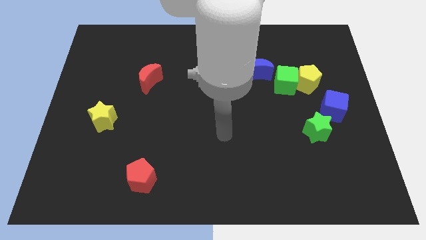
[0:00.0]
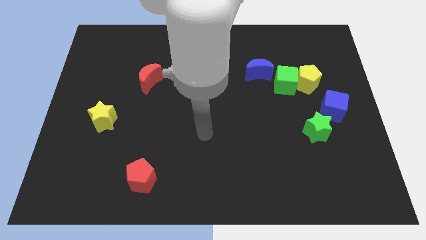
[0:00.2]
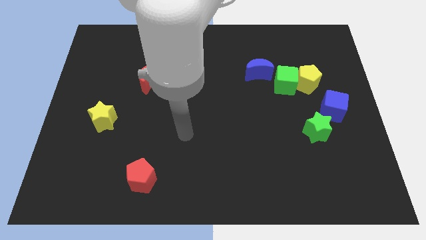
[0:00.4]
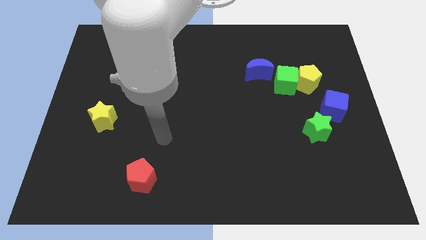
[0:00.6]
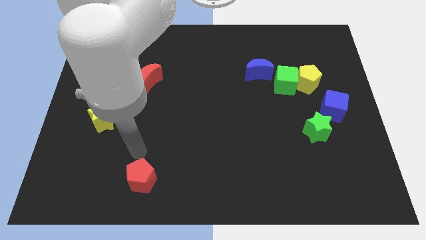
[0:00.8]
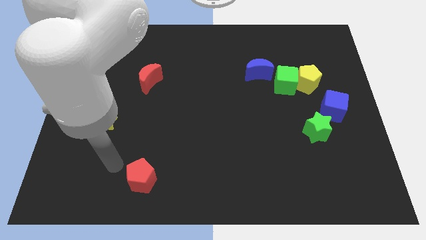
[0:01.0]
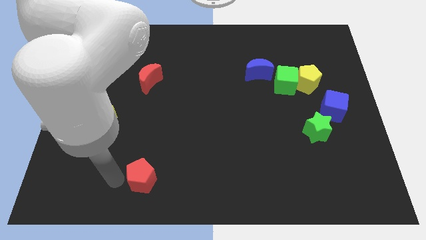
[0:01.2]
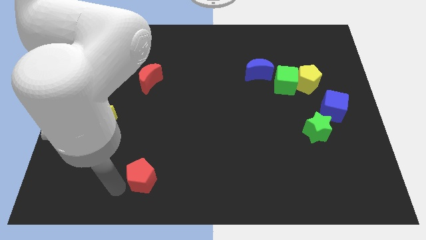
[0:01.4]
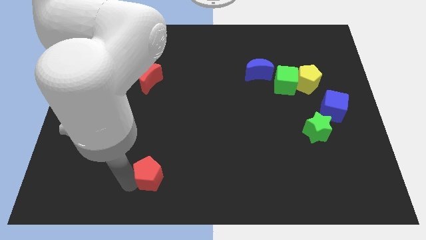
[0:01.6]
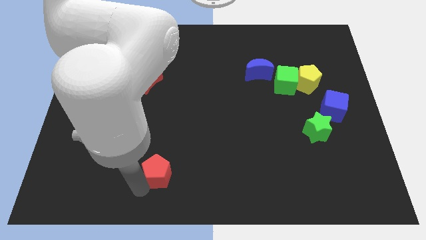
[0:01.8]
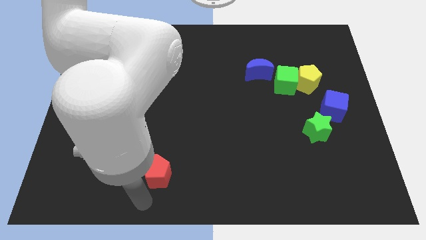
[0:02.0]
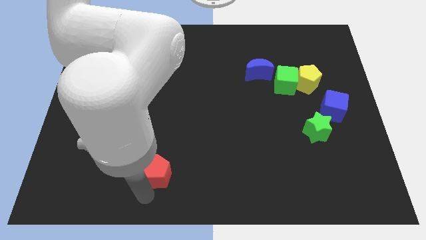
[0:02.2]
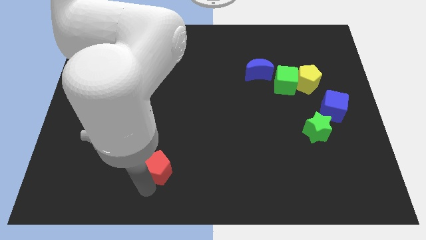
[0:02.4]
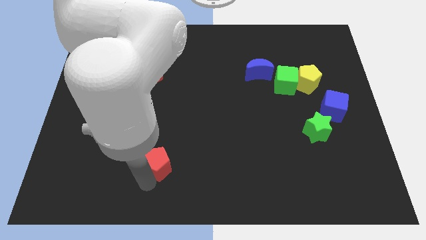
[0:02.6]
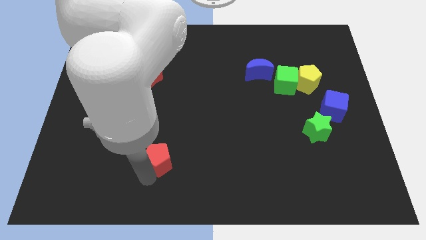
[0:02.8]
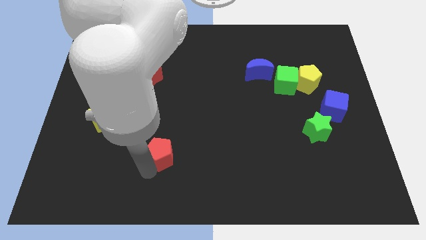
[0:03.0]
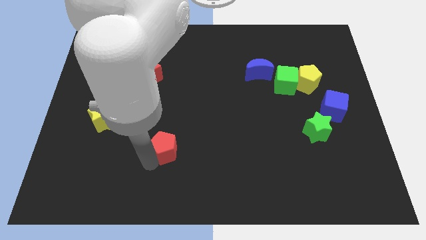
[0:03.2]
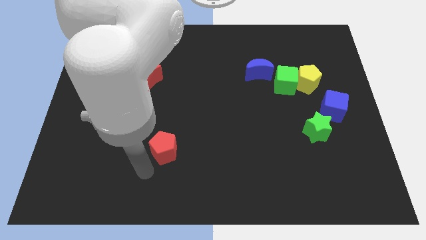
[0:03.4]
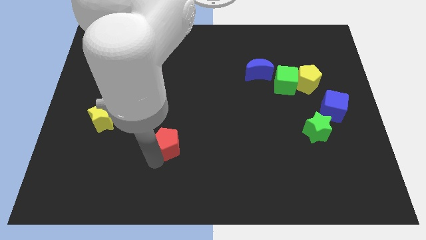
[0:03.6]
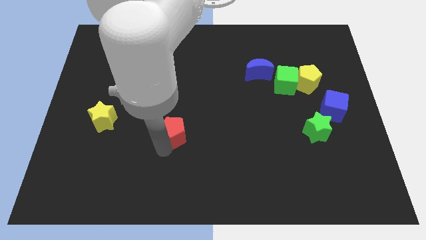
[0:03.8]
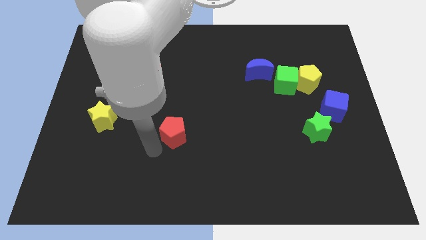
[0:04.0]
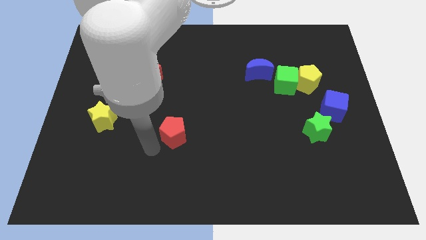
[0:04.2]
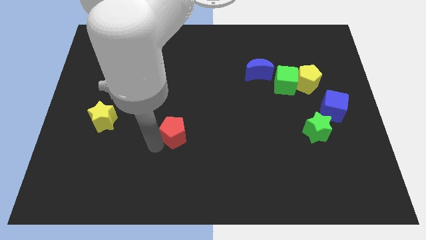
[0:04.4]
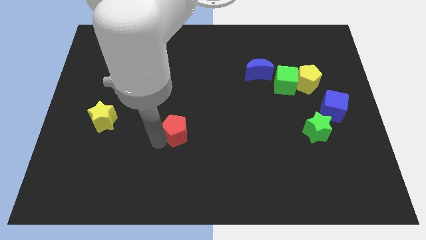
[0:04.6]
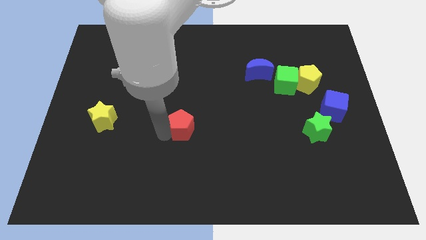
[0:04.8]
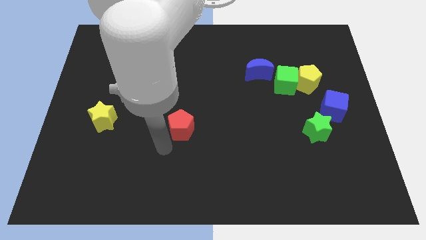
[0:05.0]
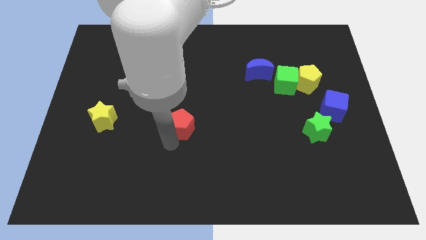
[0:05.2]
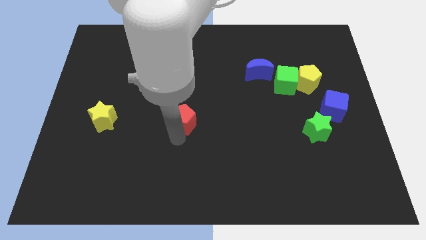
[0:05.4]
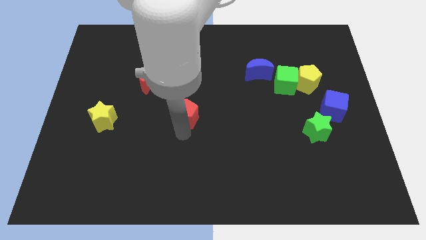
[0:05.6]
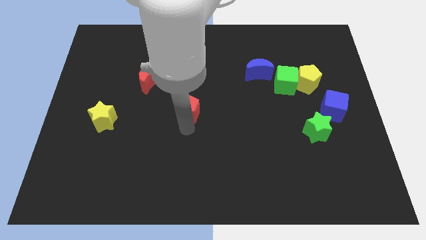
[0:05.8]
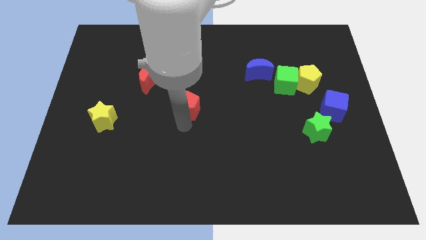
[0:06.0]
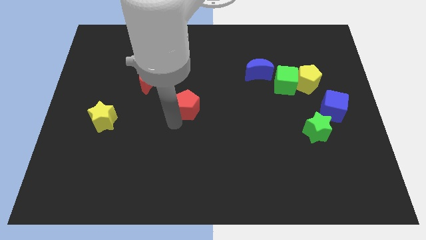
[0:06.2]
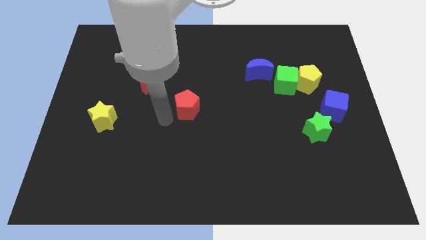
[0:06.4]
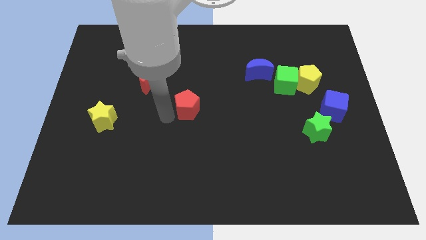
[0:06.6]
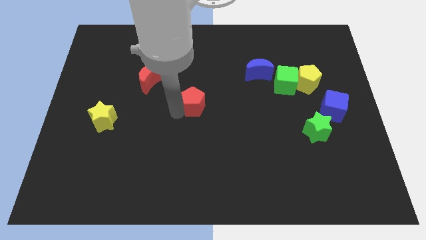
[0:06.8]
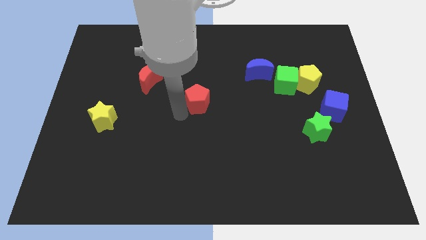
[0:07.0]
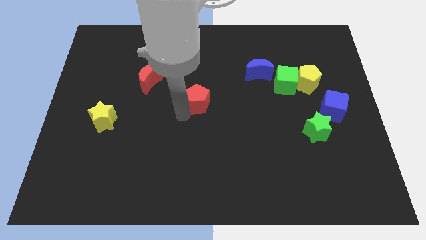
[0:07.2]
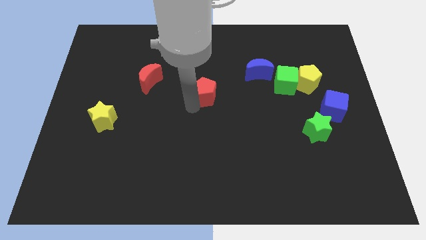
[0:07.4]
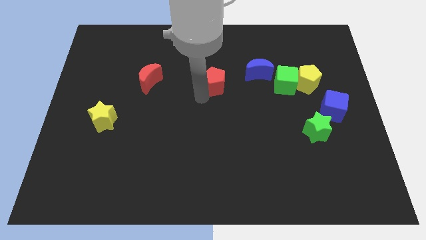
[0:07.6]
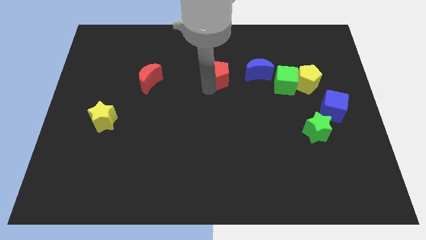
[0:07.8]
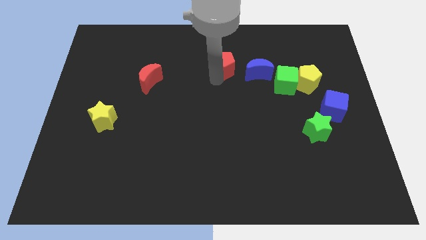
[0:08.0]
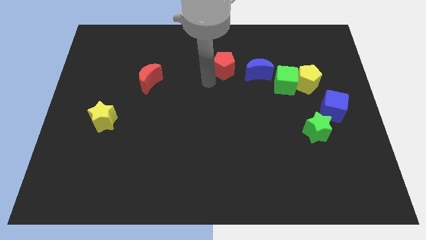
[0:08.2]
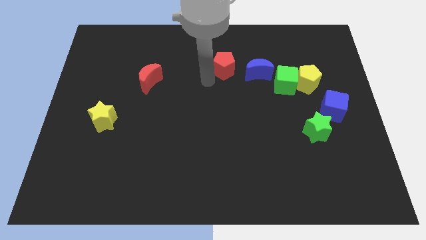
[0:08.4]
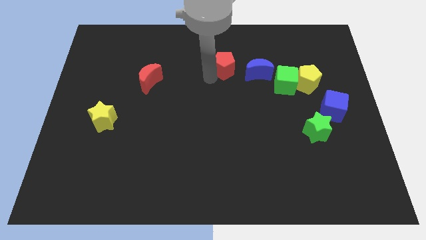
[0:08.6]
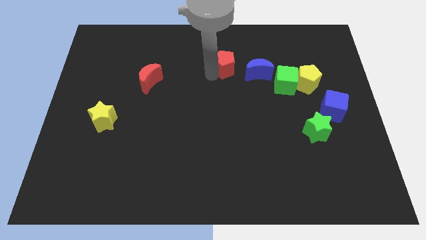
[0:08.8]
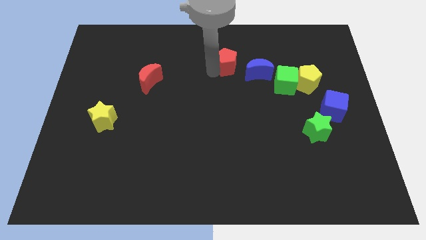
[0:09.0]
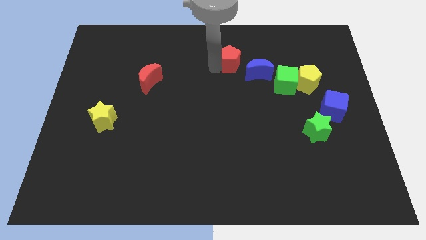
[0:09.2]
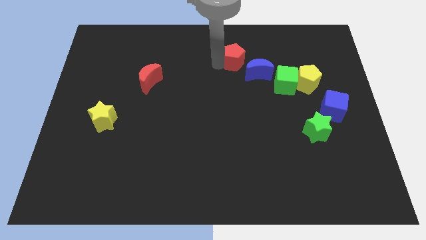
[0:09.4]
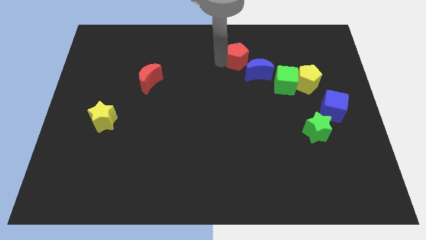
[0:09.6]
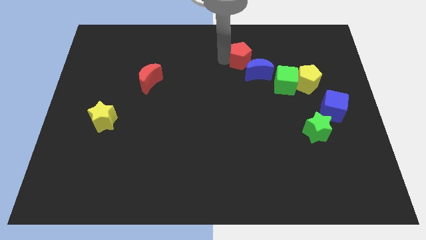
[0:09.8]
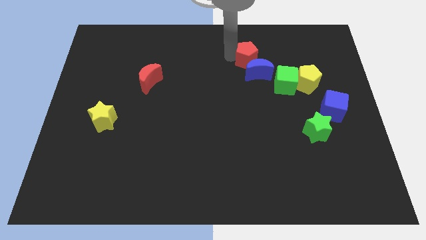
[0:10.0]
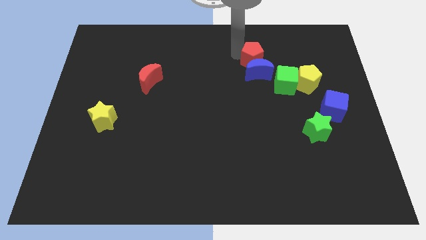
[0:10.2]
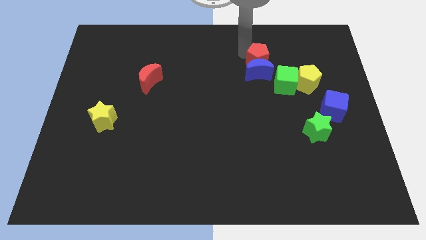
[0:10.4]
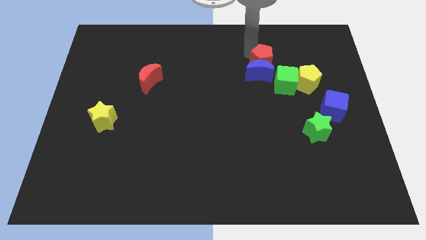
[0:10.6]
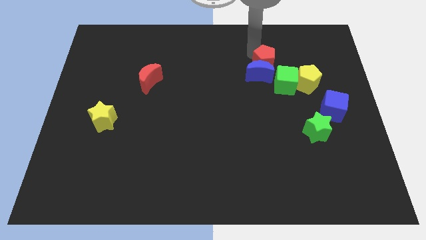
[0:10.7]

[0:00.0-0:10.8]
slide the red pentagon diagonally up and to the left of the yellow pentagon
